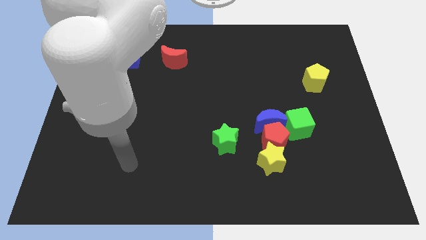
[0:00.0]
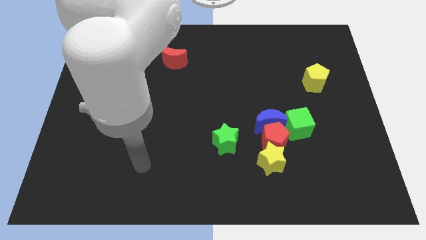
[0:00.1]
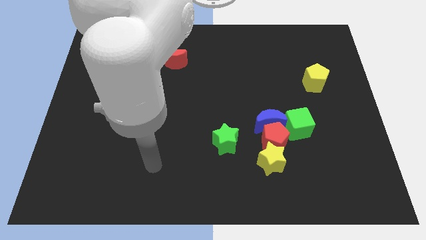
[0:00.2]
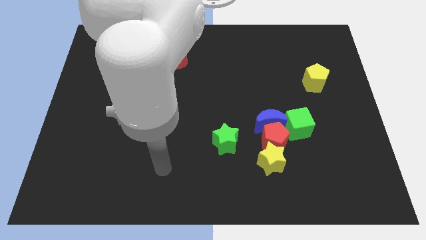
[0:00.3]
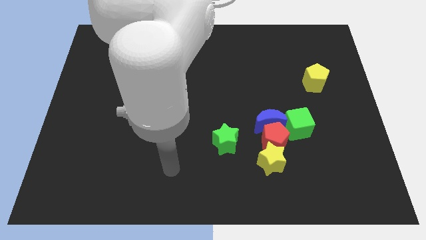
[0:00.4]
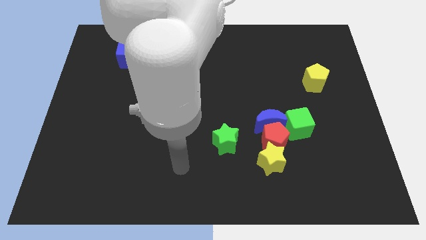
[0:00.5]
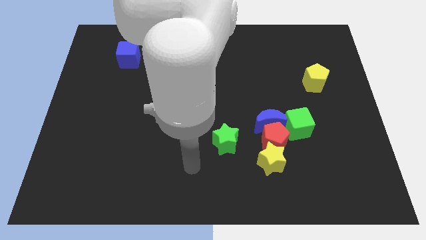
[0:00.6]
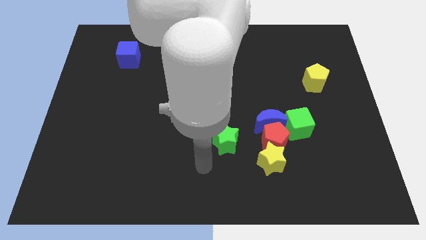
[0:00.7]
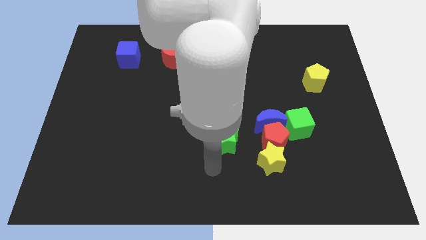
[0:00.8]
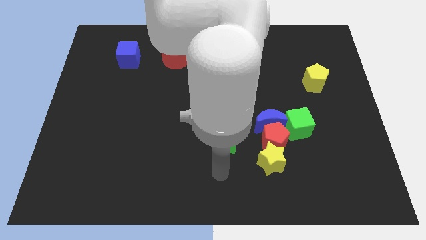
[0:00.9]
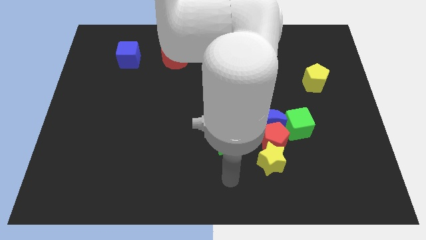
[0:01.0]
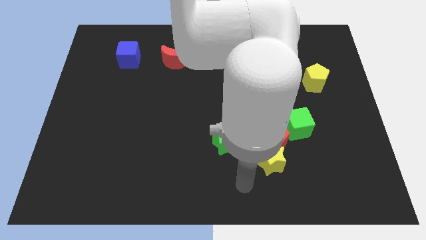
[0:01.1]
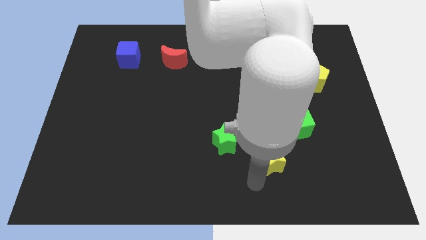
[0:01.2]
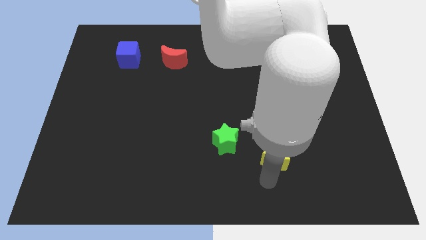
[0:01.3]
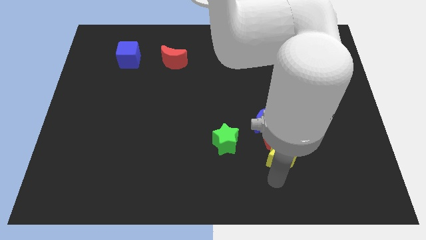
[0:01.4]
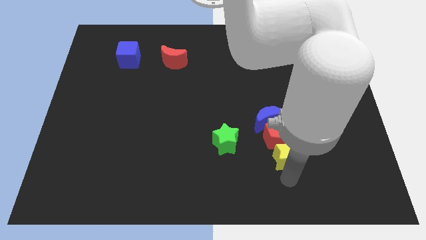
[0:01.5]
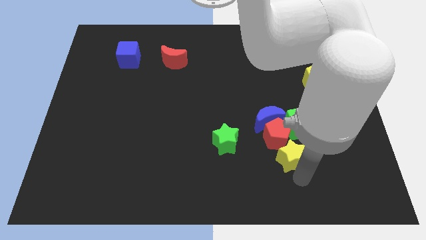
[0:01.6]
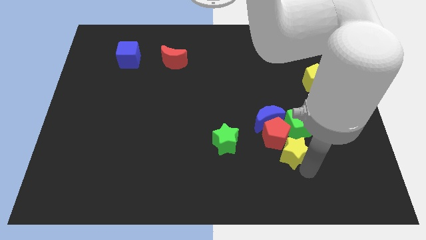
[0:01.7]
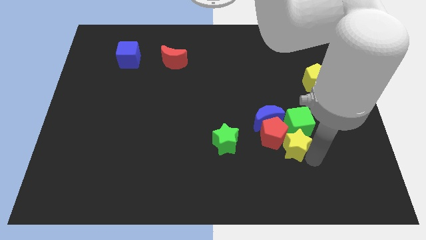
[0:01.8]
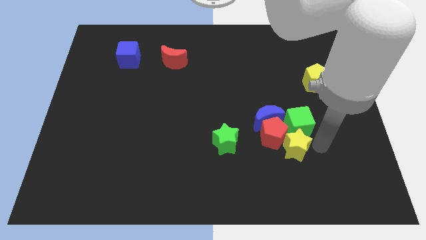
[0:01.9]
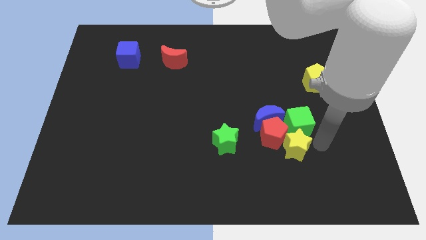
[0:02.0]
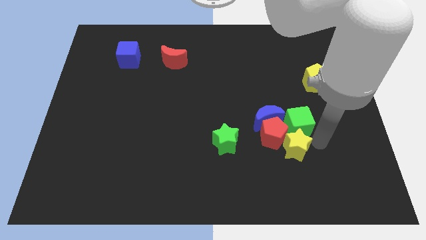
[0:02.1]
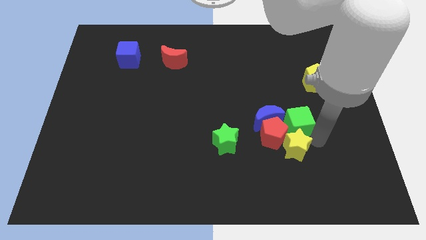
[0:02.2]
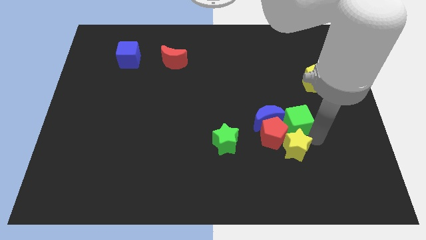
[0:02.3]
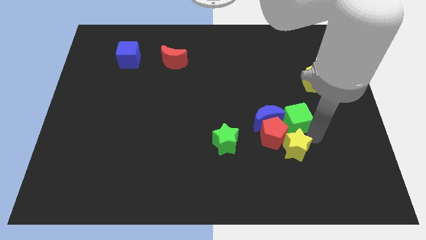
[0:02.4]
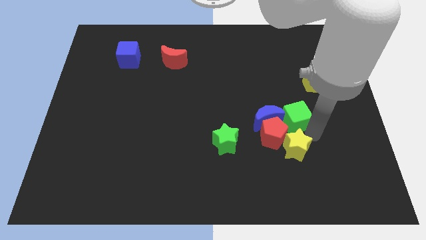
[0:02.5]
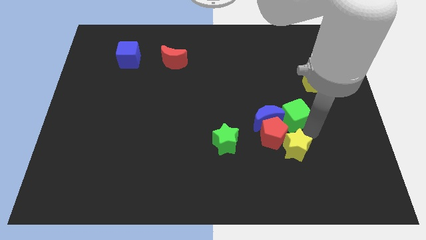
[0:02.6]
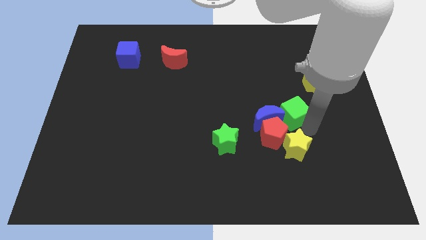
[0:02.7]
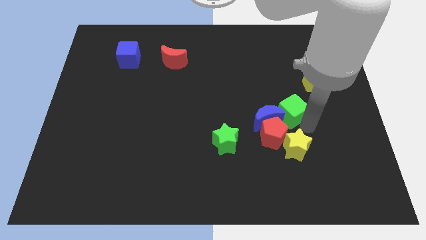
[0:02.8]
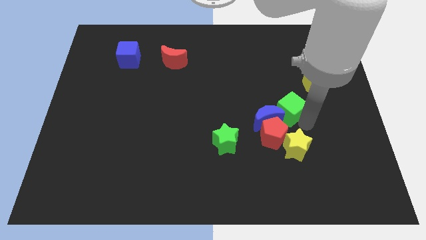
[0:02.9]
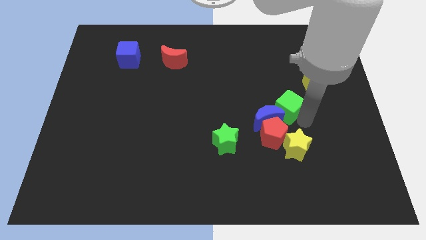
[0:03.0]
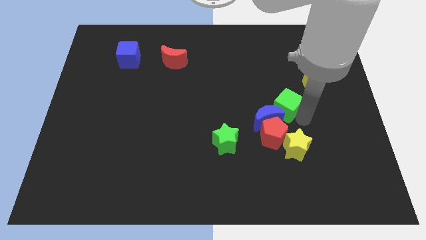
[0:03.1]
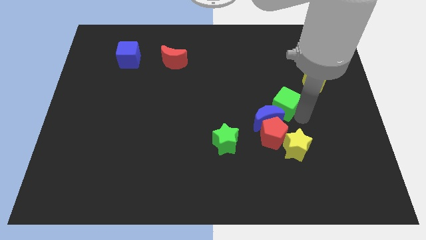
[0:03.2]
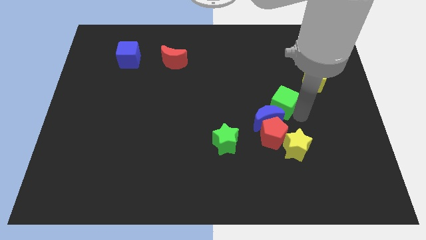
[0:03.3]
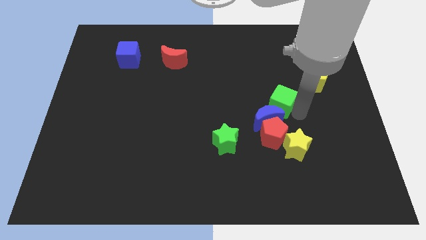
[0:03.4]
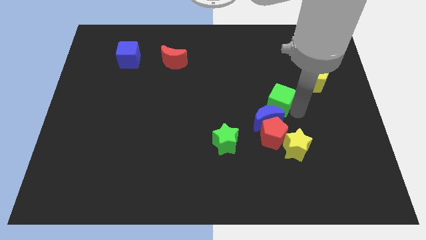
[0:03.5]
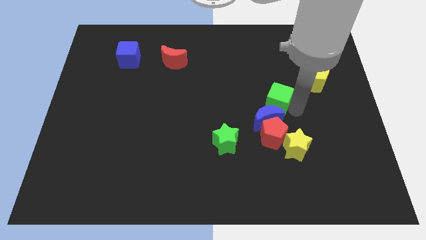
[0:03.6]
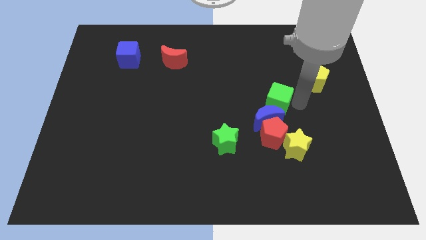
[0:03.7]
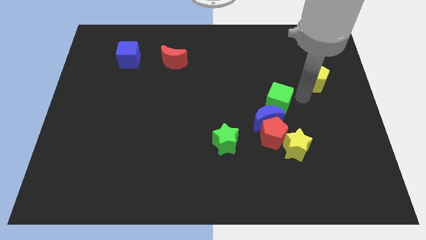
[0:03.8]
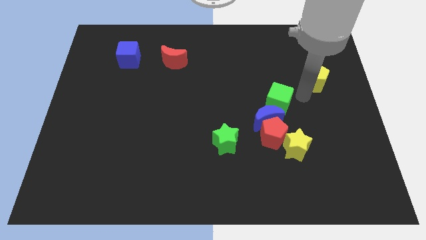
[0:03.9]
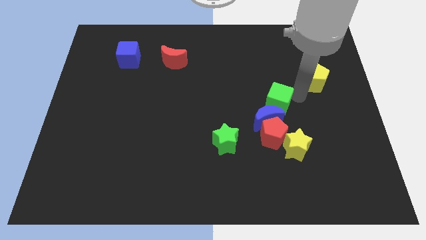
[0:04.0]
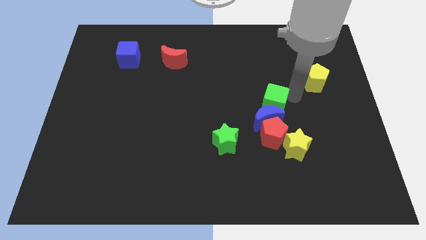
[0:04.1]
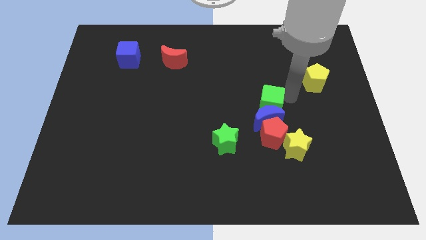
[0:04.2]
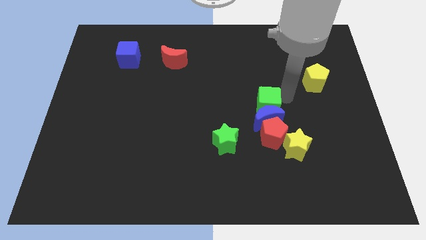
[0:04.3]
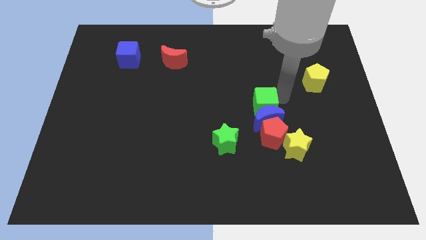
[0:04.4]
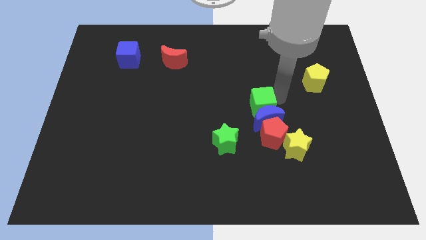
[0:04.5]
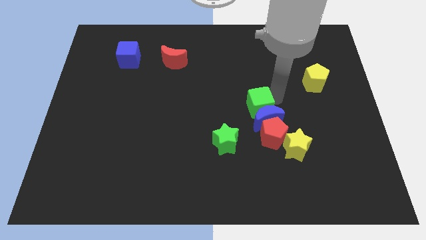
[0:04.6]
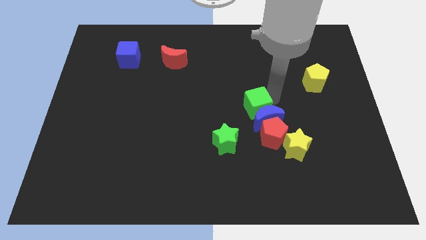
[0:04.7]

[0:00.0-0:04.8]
push the green cube left a little

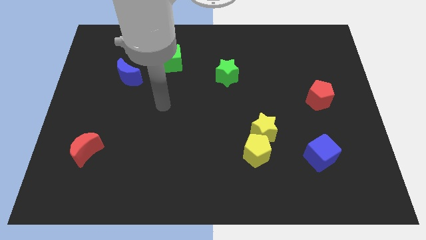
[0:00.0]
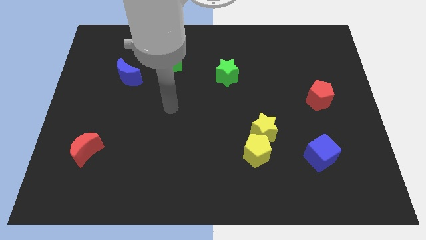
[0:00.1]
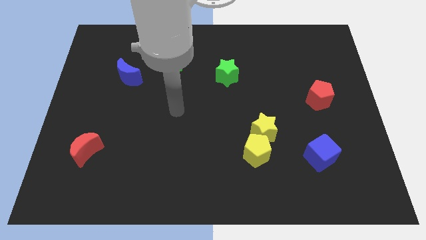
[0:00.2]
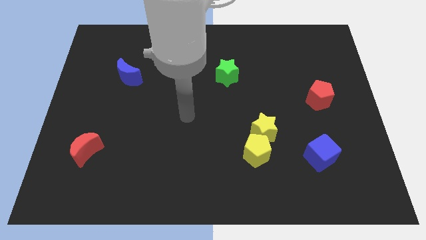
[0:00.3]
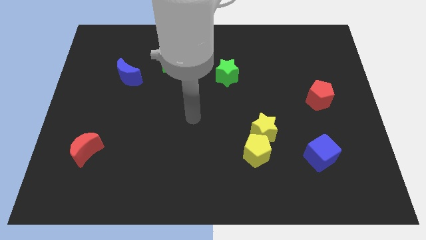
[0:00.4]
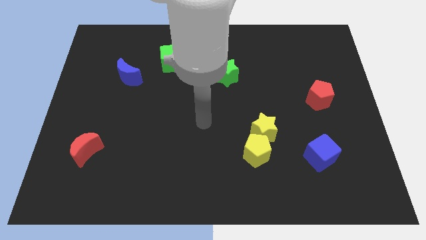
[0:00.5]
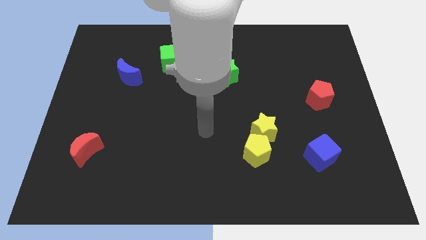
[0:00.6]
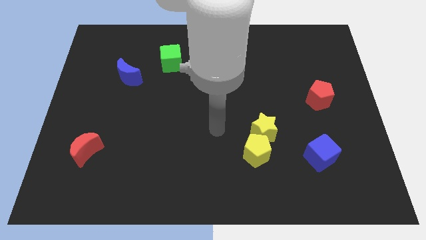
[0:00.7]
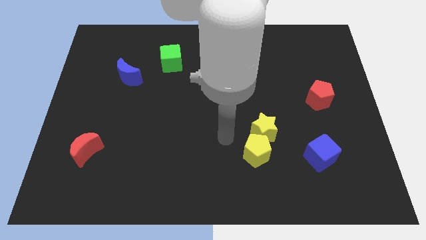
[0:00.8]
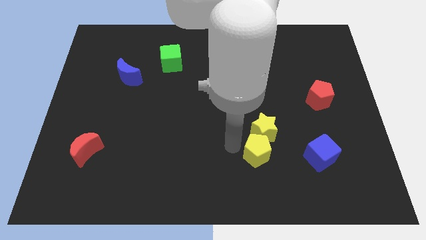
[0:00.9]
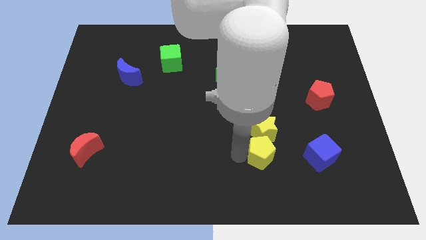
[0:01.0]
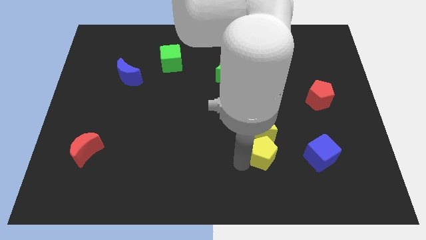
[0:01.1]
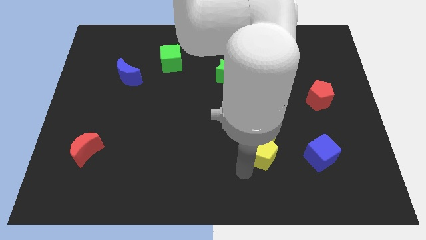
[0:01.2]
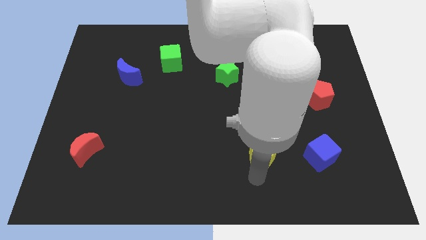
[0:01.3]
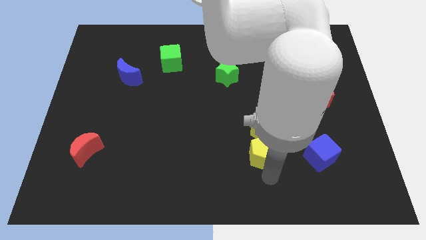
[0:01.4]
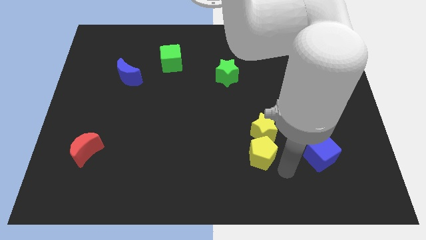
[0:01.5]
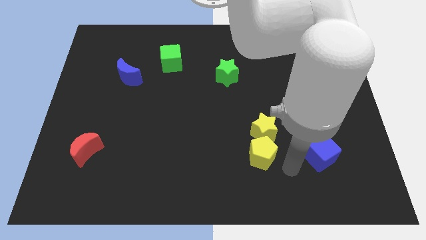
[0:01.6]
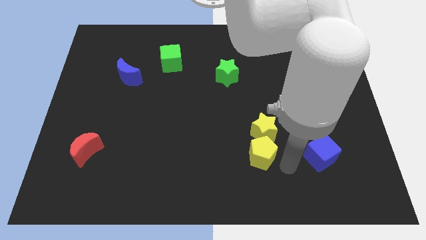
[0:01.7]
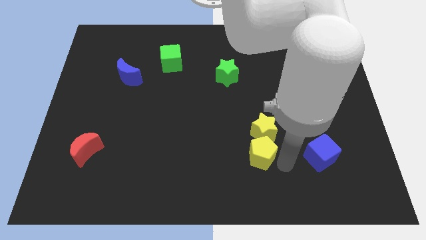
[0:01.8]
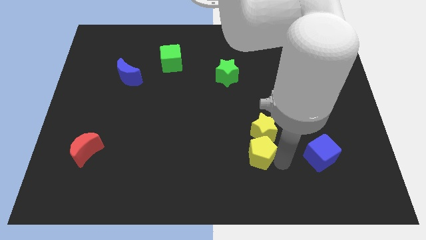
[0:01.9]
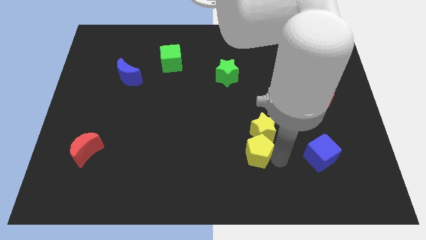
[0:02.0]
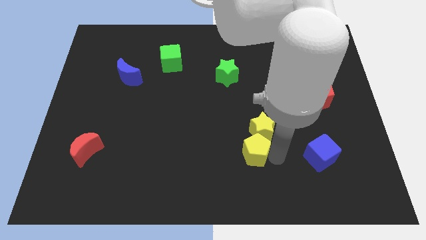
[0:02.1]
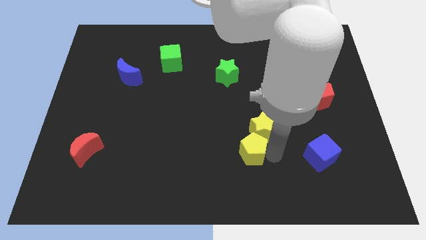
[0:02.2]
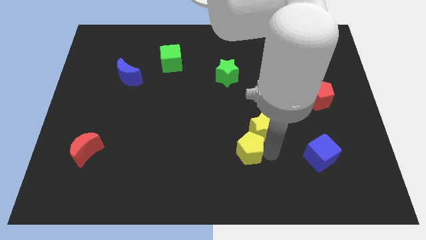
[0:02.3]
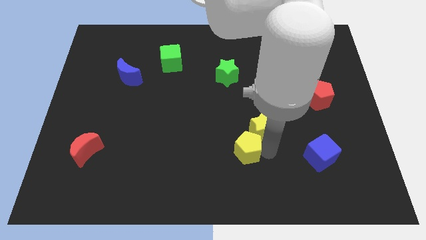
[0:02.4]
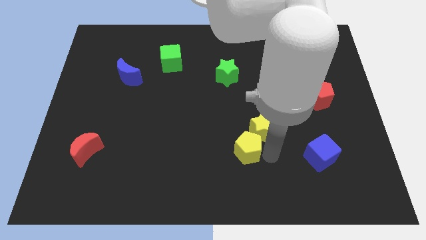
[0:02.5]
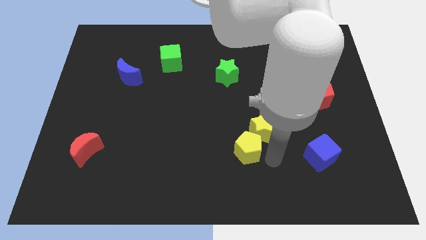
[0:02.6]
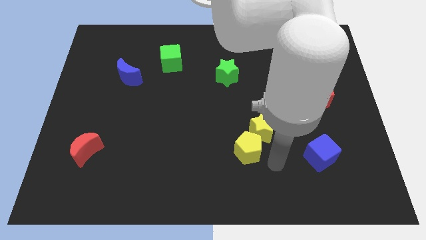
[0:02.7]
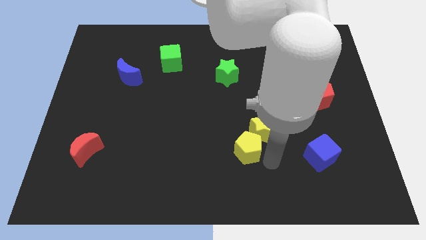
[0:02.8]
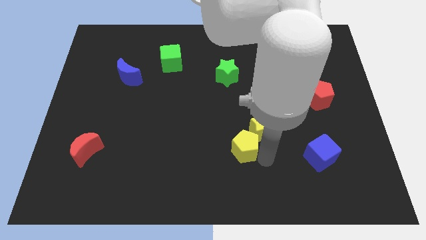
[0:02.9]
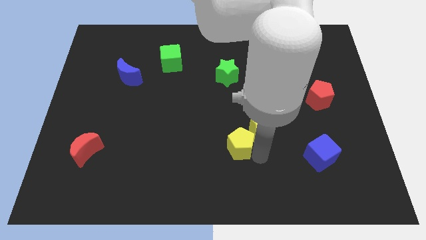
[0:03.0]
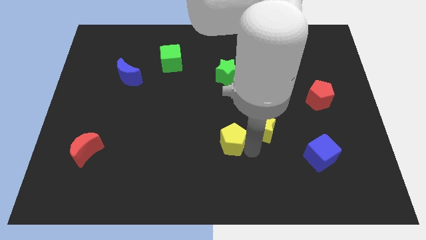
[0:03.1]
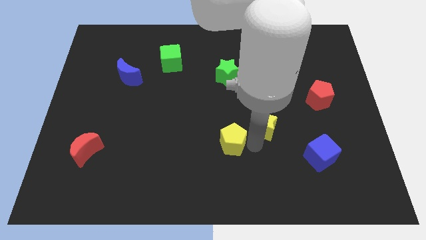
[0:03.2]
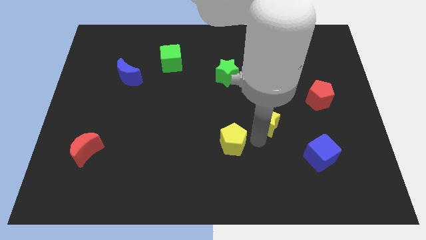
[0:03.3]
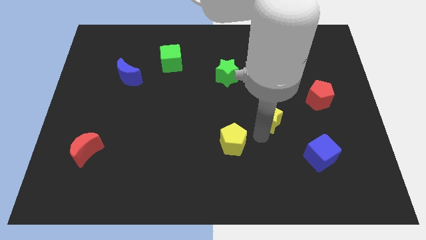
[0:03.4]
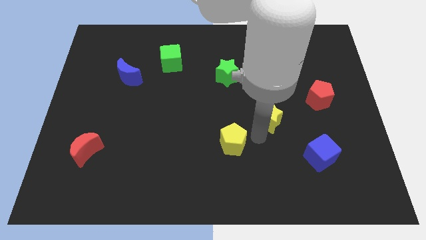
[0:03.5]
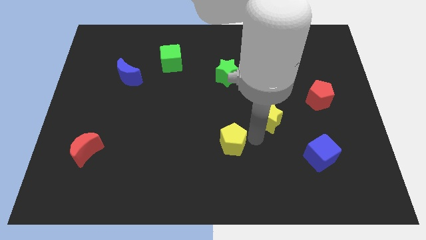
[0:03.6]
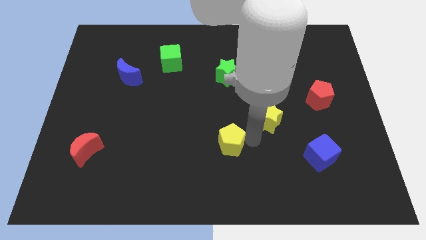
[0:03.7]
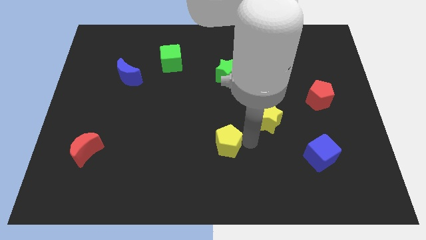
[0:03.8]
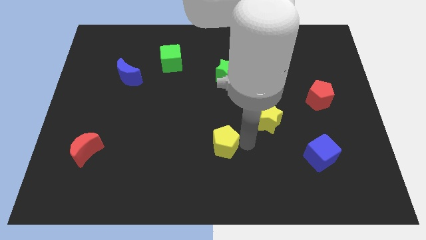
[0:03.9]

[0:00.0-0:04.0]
slide the yellow pentagon slightly to the left
